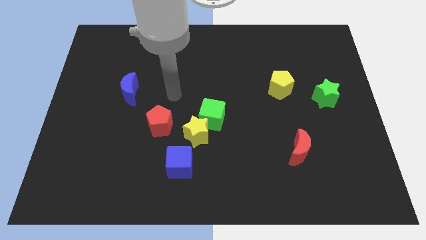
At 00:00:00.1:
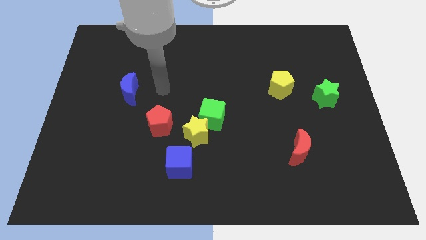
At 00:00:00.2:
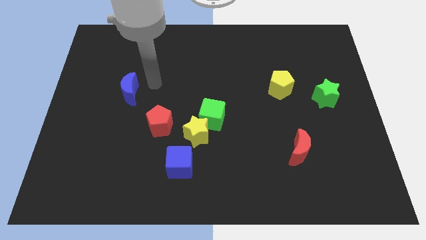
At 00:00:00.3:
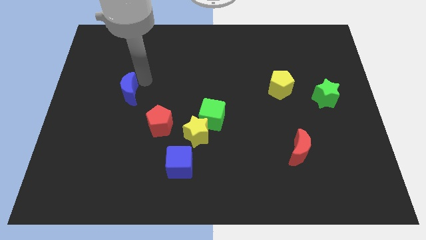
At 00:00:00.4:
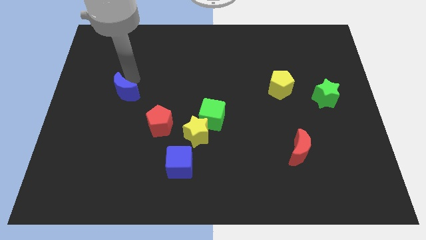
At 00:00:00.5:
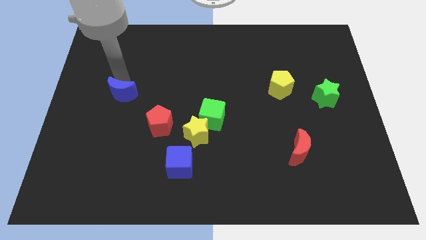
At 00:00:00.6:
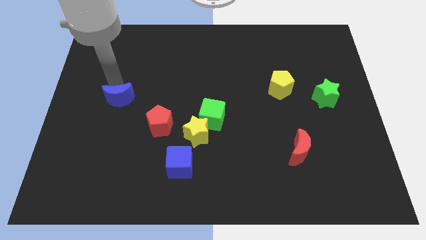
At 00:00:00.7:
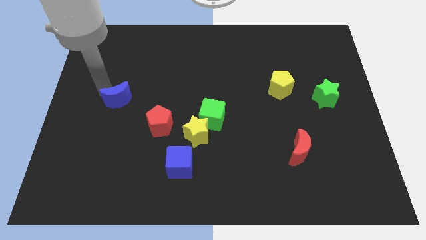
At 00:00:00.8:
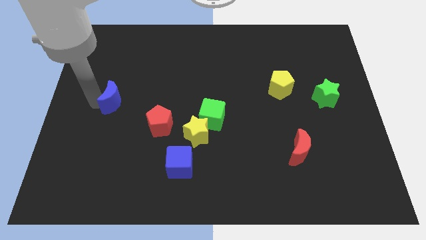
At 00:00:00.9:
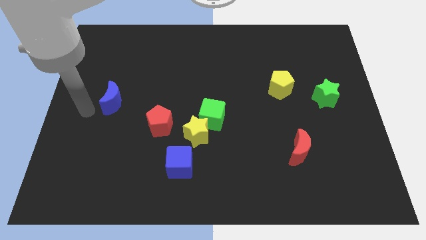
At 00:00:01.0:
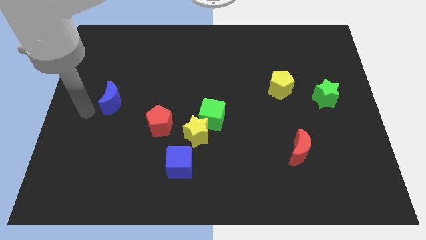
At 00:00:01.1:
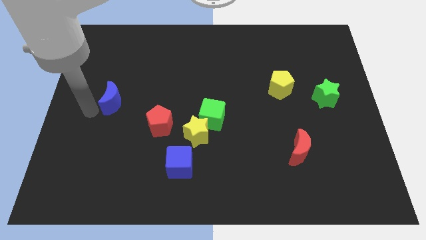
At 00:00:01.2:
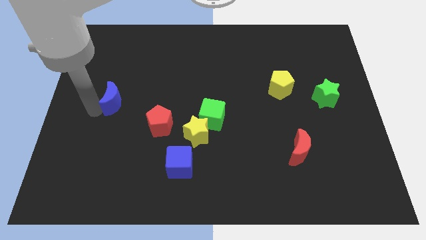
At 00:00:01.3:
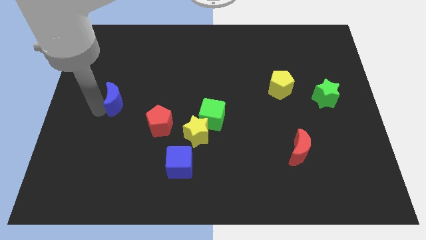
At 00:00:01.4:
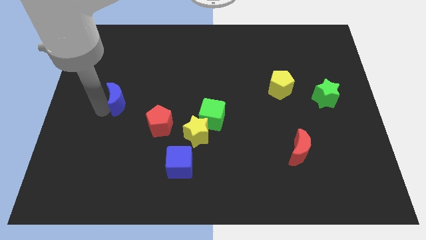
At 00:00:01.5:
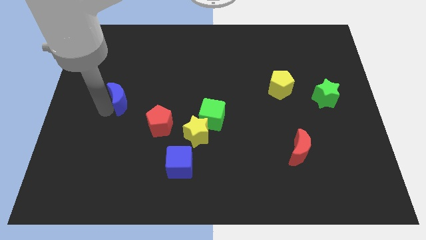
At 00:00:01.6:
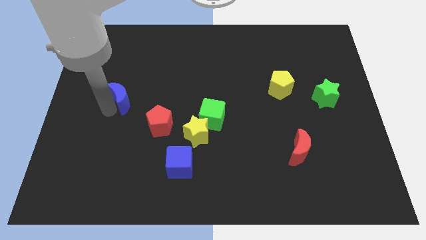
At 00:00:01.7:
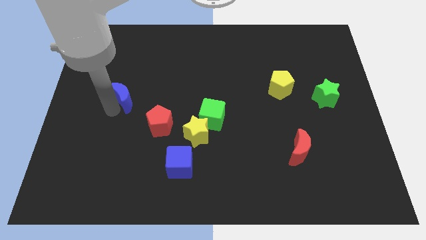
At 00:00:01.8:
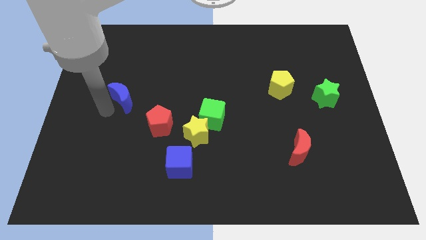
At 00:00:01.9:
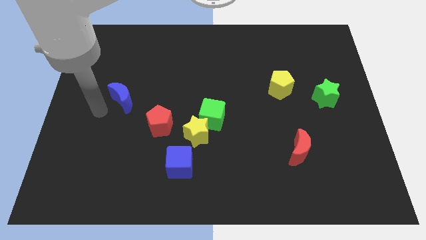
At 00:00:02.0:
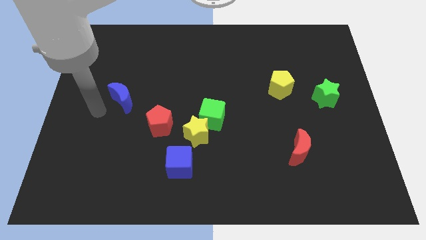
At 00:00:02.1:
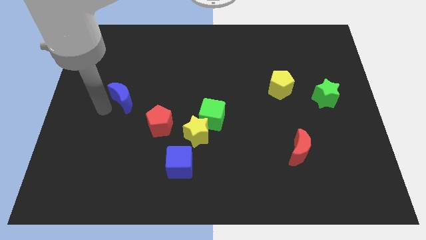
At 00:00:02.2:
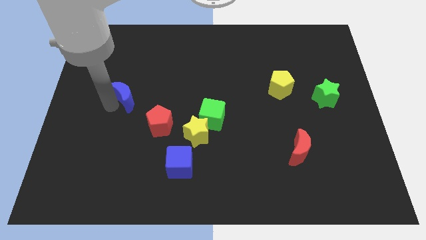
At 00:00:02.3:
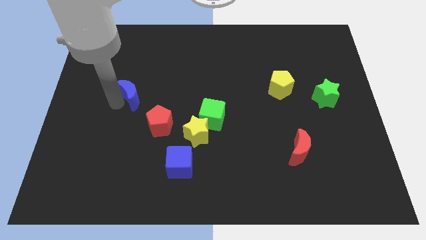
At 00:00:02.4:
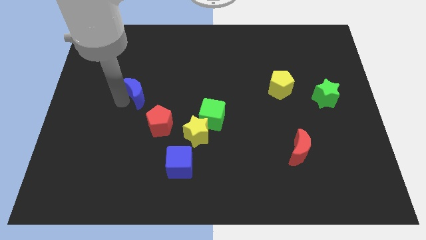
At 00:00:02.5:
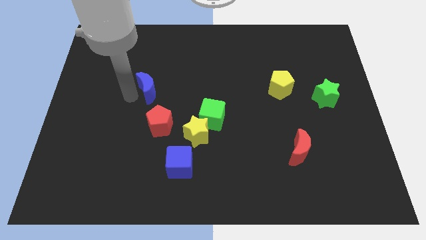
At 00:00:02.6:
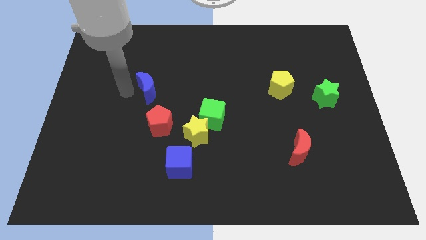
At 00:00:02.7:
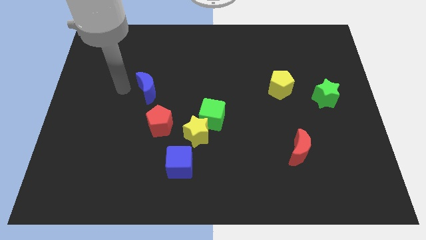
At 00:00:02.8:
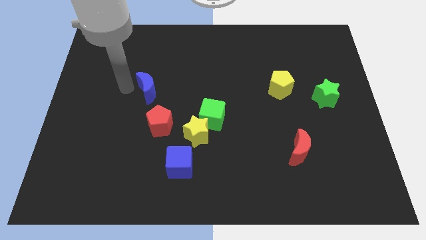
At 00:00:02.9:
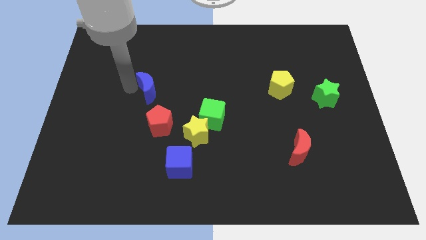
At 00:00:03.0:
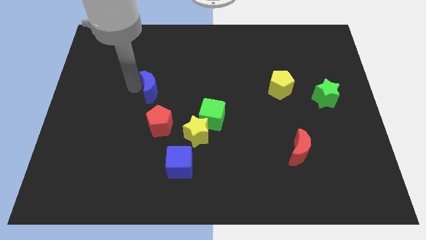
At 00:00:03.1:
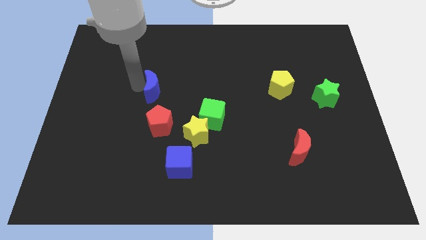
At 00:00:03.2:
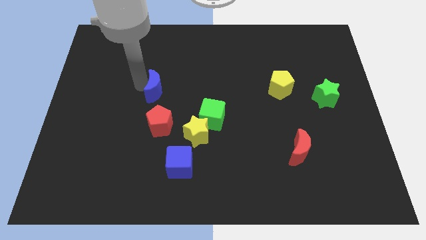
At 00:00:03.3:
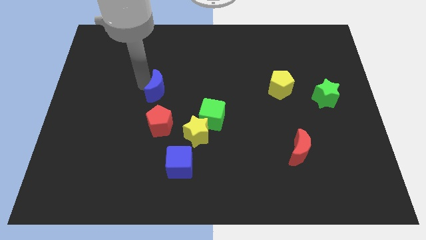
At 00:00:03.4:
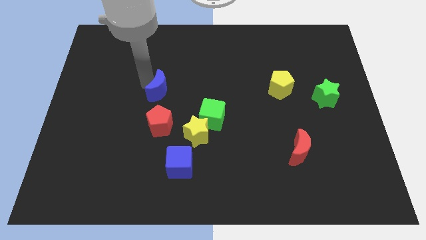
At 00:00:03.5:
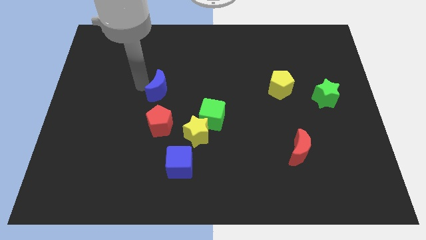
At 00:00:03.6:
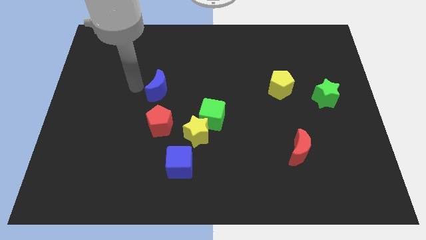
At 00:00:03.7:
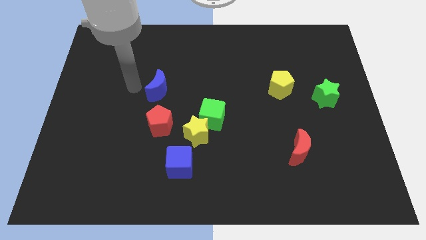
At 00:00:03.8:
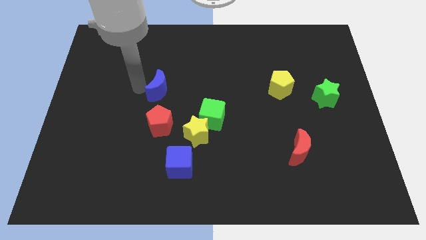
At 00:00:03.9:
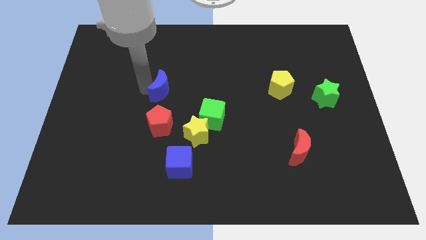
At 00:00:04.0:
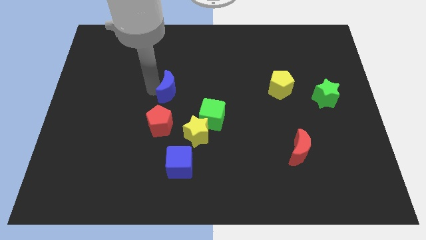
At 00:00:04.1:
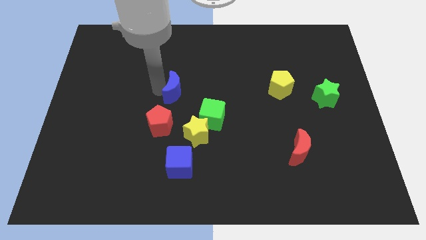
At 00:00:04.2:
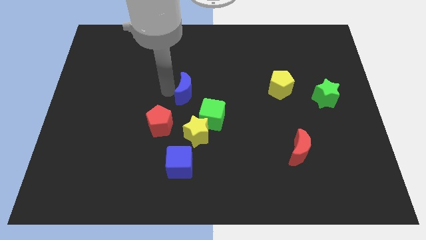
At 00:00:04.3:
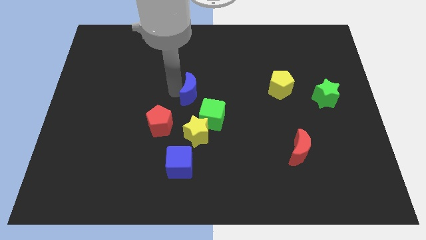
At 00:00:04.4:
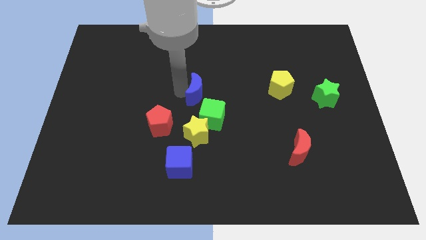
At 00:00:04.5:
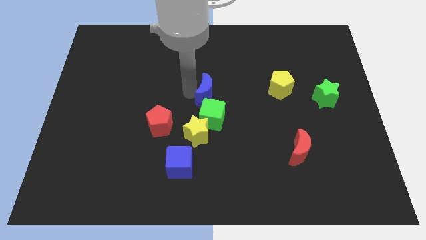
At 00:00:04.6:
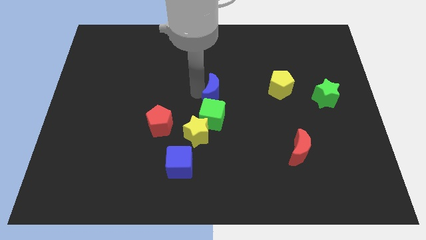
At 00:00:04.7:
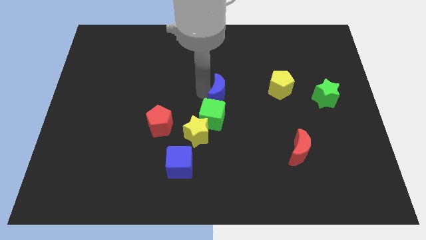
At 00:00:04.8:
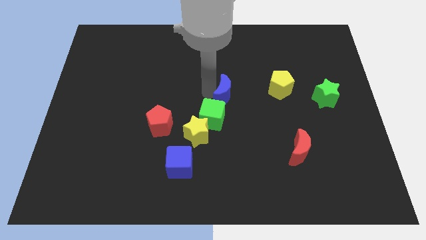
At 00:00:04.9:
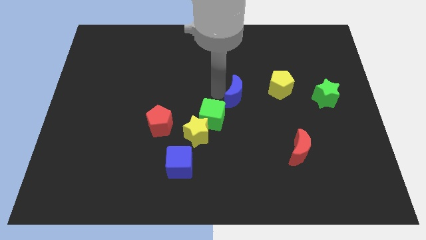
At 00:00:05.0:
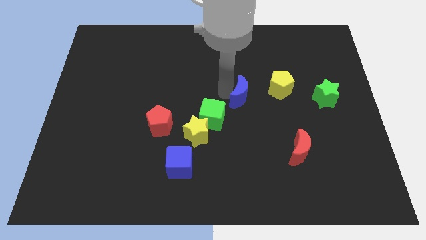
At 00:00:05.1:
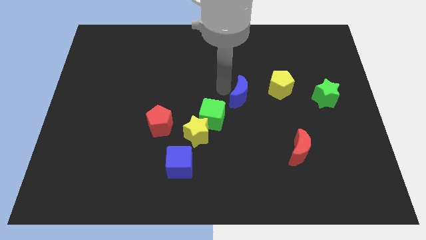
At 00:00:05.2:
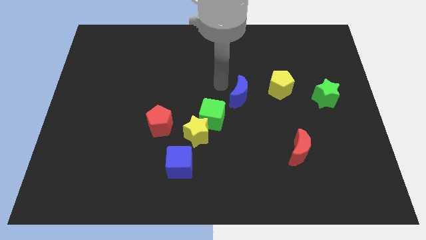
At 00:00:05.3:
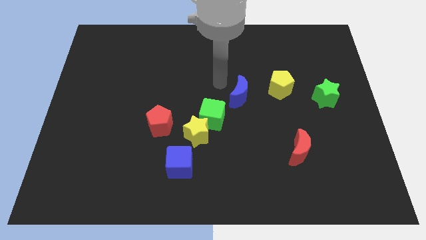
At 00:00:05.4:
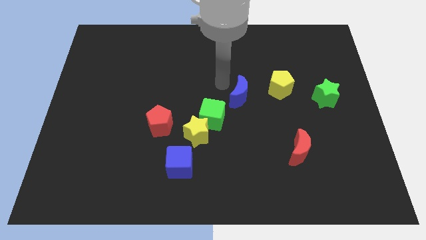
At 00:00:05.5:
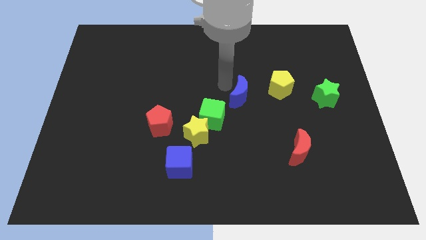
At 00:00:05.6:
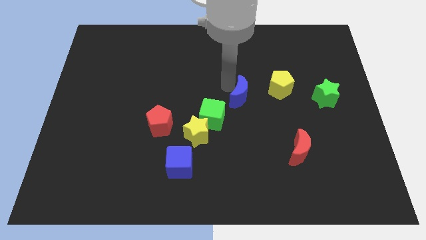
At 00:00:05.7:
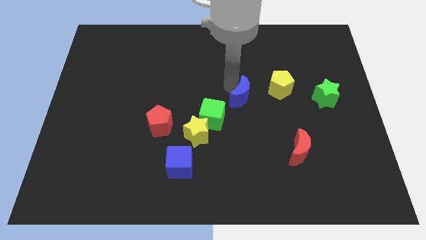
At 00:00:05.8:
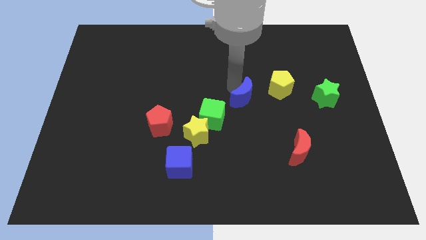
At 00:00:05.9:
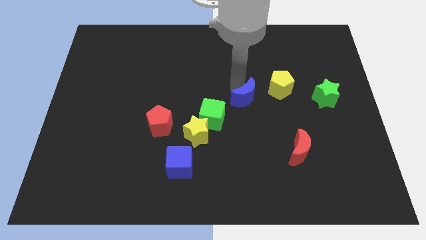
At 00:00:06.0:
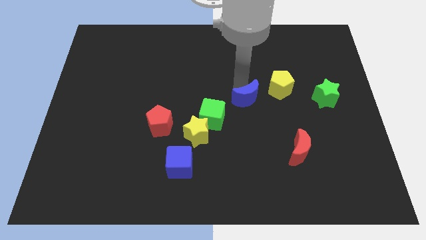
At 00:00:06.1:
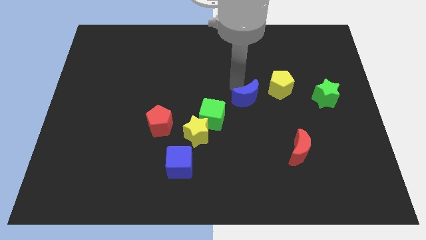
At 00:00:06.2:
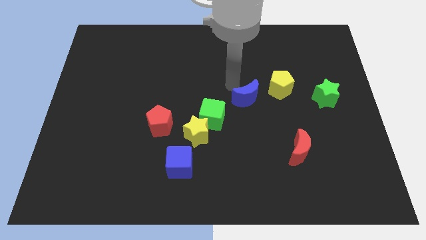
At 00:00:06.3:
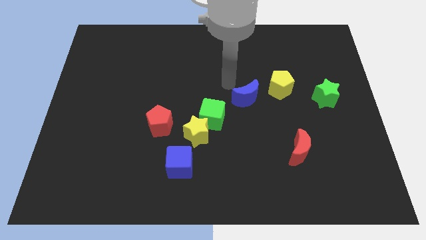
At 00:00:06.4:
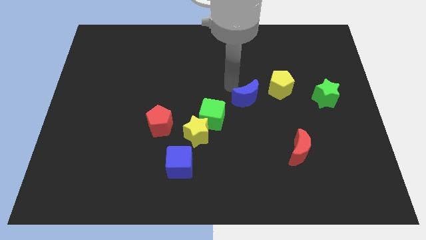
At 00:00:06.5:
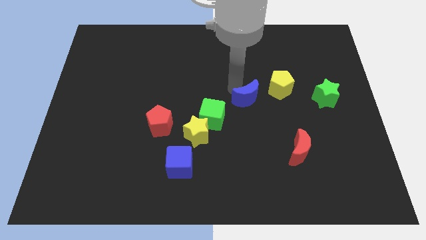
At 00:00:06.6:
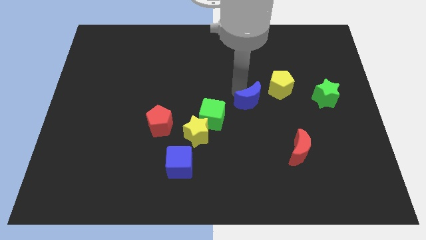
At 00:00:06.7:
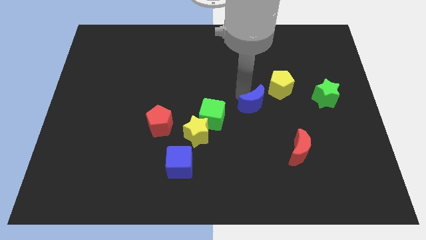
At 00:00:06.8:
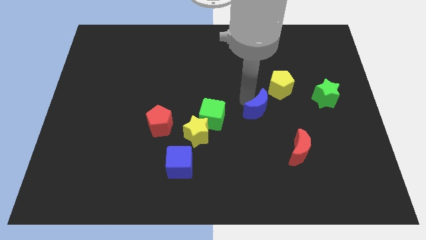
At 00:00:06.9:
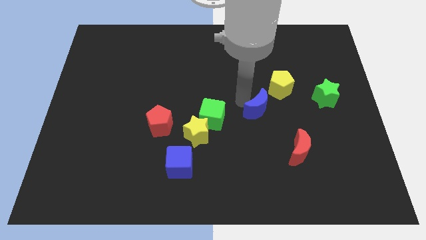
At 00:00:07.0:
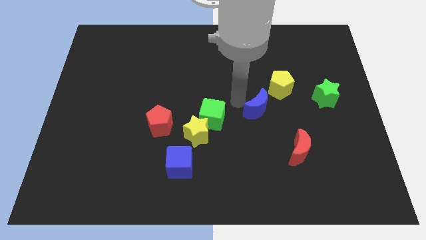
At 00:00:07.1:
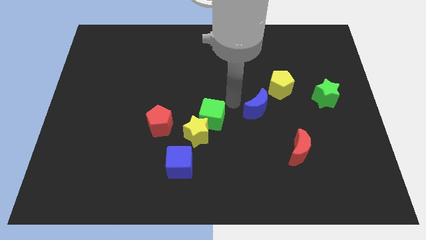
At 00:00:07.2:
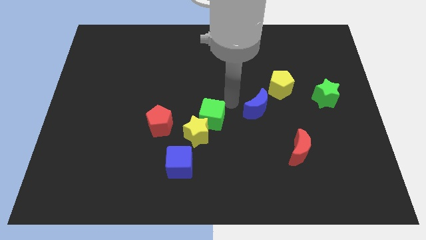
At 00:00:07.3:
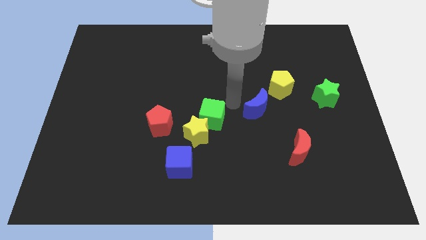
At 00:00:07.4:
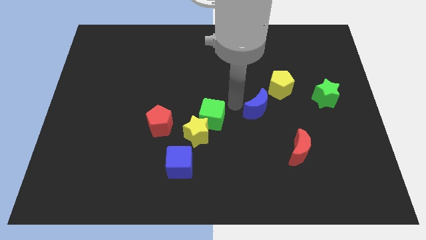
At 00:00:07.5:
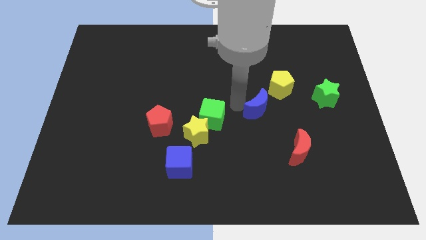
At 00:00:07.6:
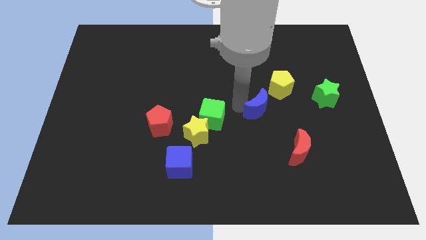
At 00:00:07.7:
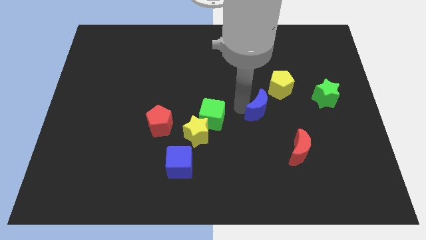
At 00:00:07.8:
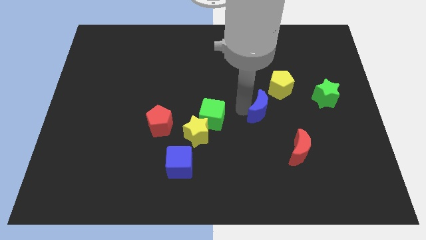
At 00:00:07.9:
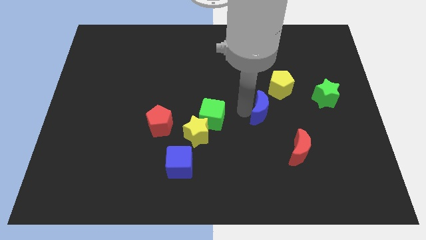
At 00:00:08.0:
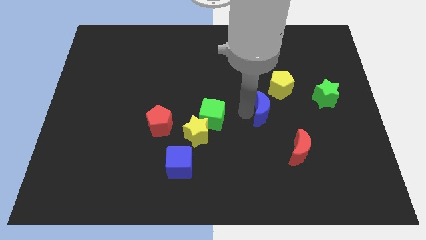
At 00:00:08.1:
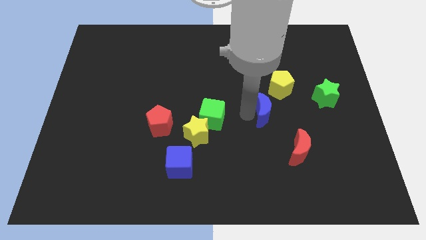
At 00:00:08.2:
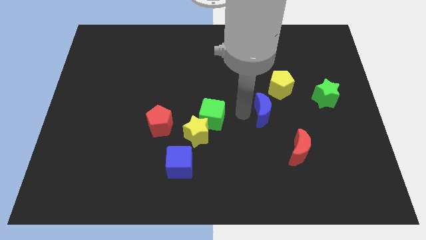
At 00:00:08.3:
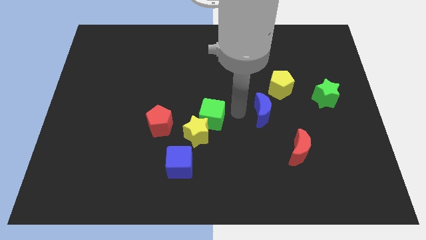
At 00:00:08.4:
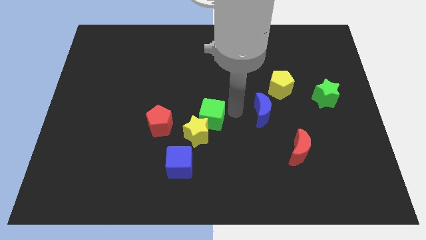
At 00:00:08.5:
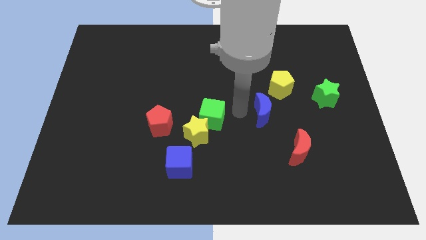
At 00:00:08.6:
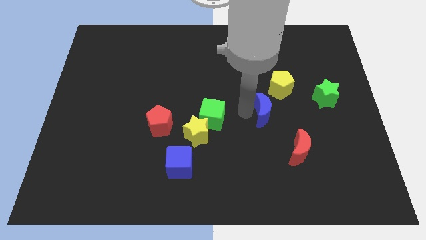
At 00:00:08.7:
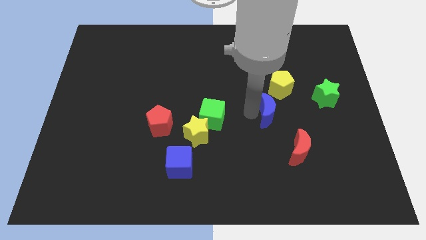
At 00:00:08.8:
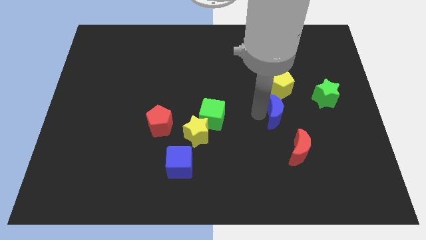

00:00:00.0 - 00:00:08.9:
push the blue moon to the top side of the red moon
